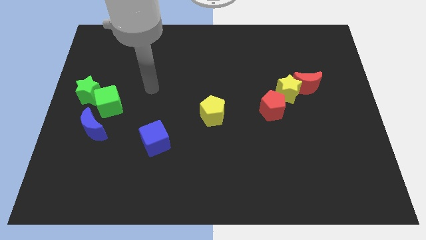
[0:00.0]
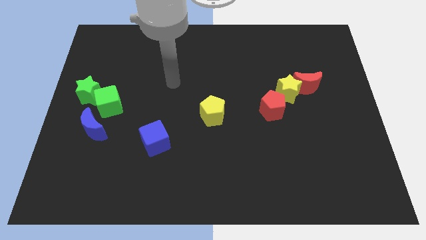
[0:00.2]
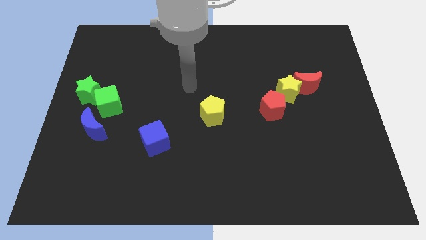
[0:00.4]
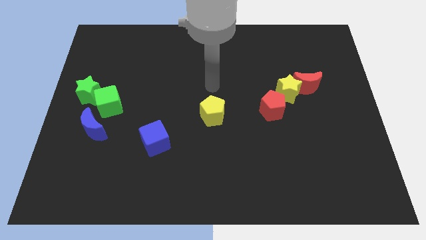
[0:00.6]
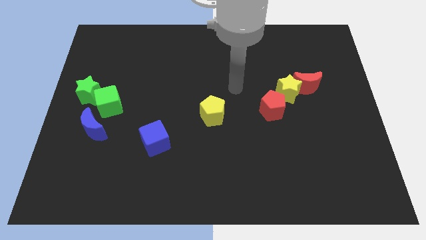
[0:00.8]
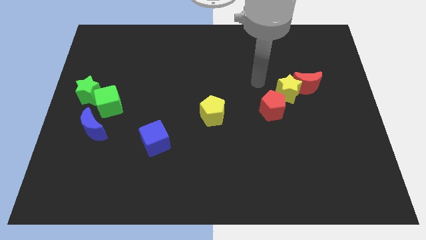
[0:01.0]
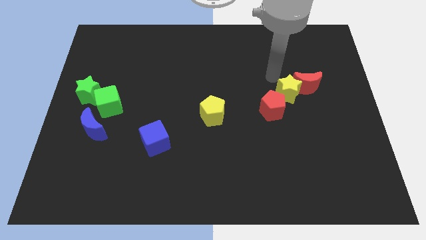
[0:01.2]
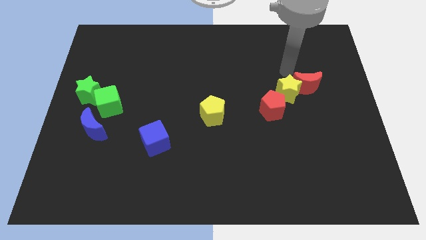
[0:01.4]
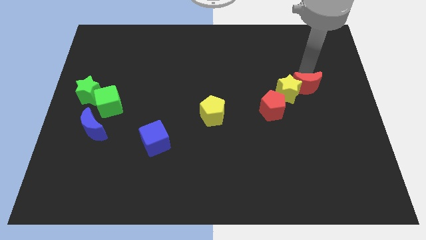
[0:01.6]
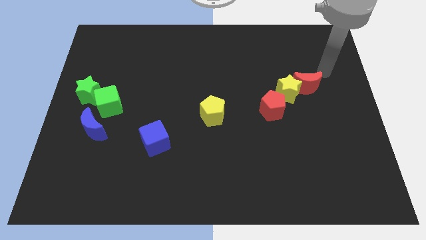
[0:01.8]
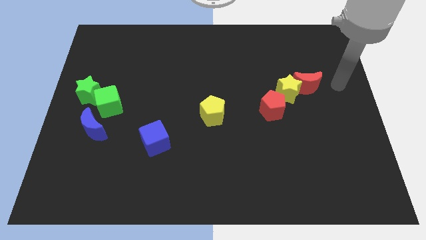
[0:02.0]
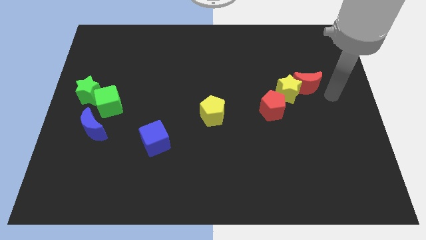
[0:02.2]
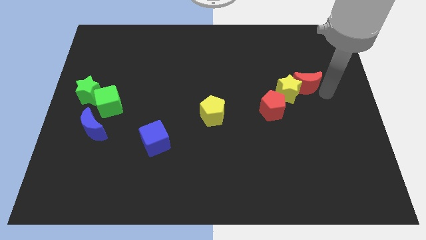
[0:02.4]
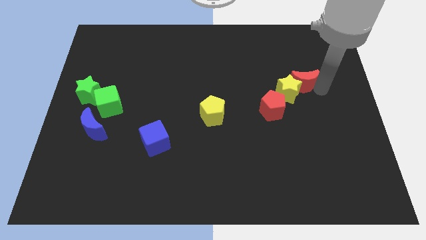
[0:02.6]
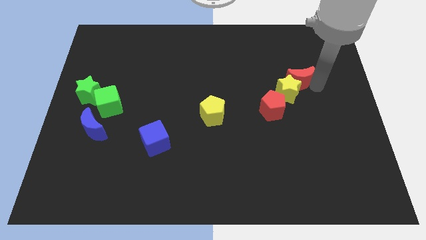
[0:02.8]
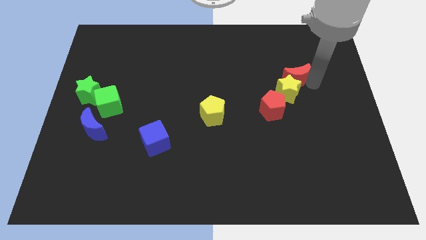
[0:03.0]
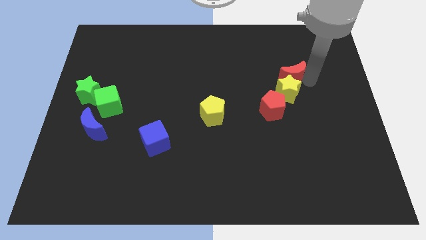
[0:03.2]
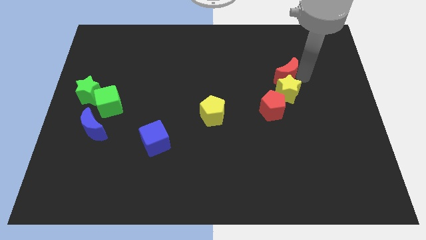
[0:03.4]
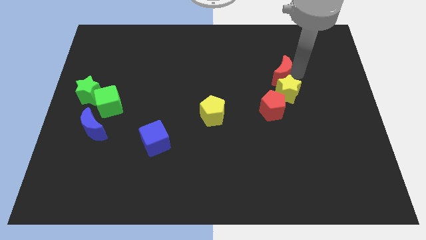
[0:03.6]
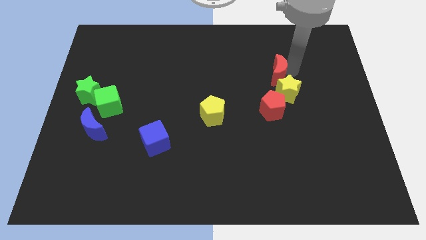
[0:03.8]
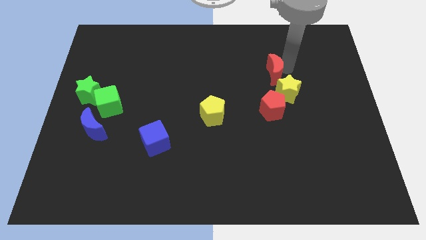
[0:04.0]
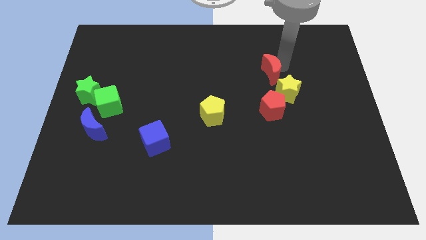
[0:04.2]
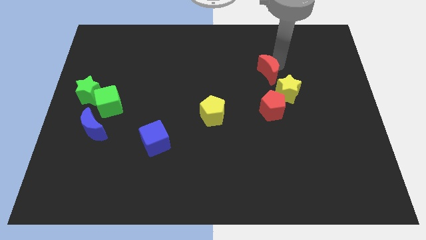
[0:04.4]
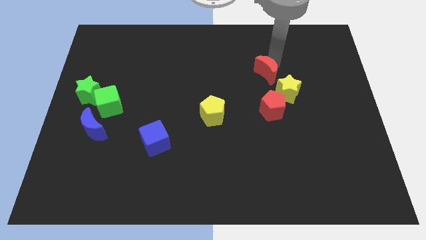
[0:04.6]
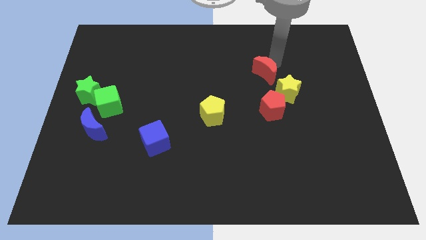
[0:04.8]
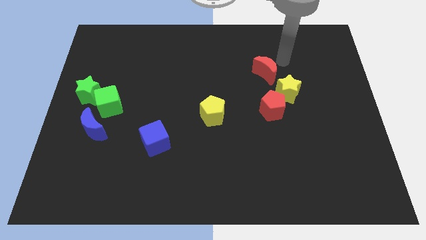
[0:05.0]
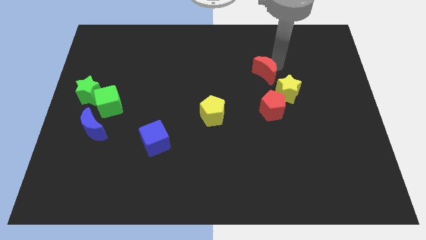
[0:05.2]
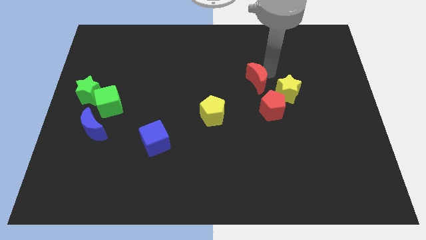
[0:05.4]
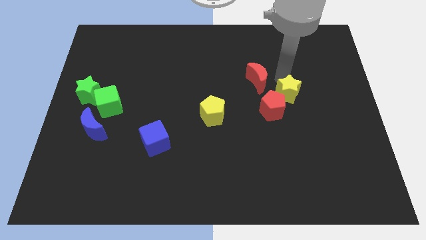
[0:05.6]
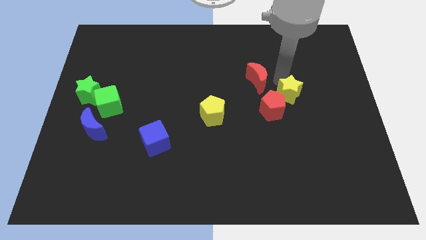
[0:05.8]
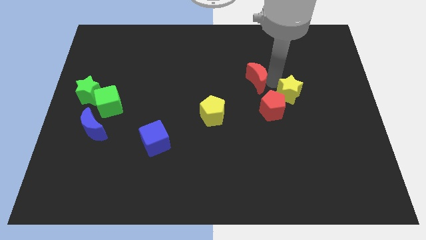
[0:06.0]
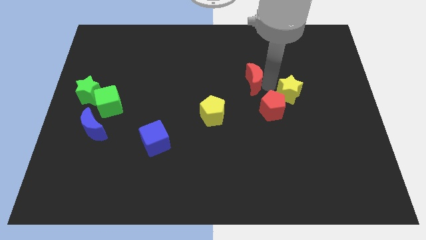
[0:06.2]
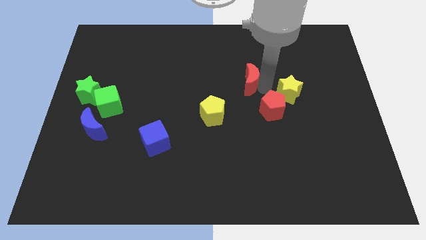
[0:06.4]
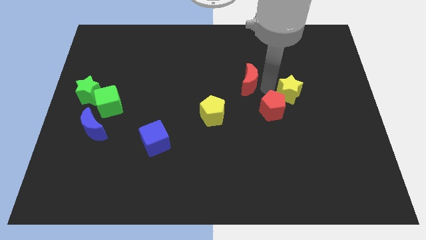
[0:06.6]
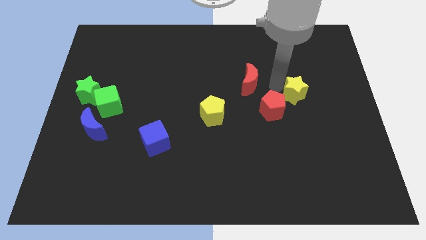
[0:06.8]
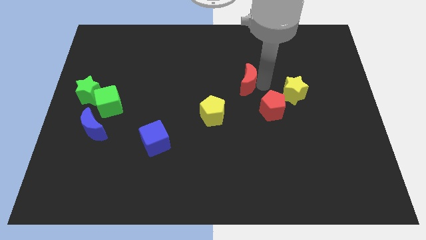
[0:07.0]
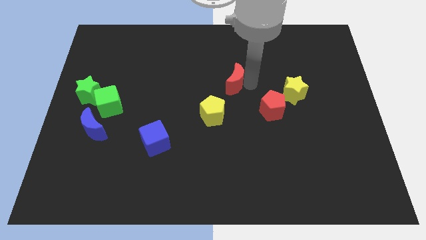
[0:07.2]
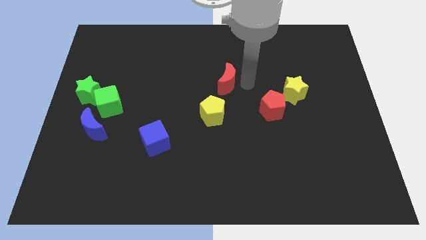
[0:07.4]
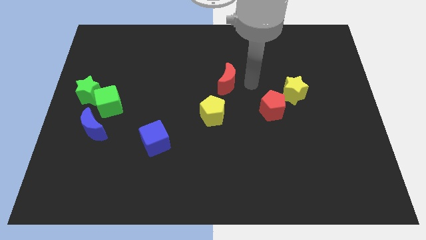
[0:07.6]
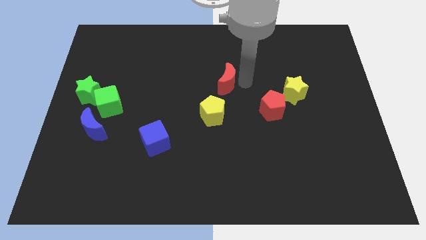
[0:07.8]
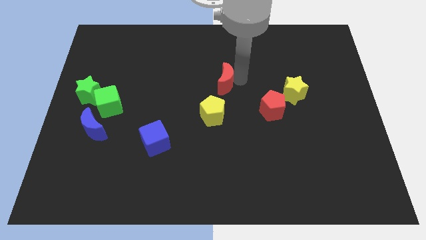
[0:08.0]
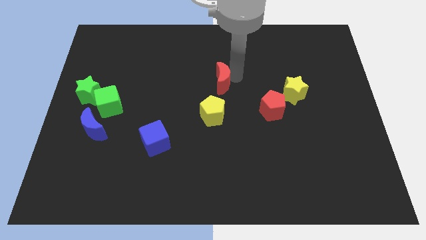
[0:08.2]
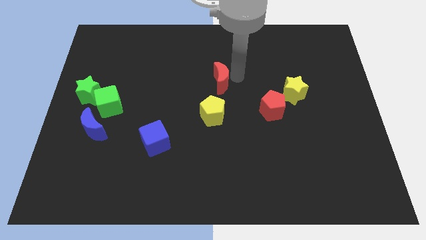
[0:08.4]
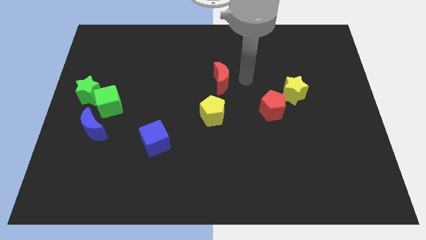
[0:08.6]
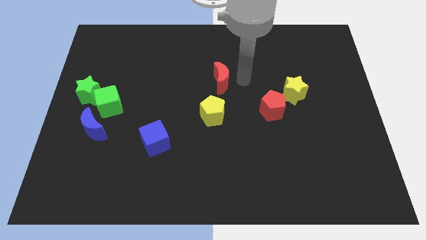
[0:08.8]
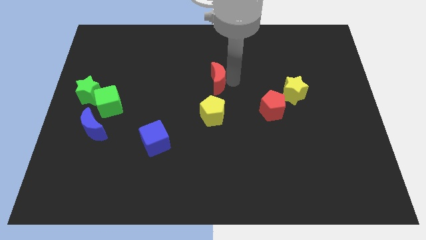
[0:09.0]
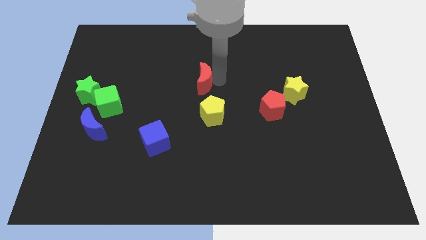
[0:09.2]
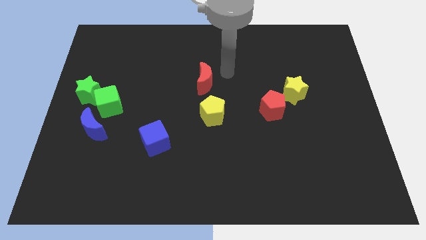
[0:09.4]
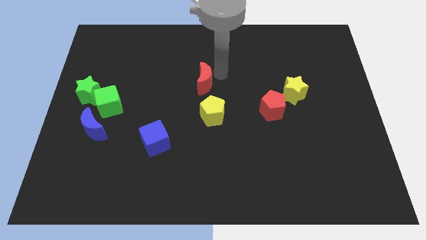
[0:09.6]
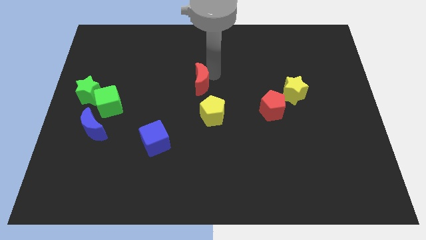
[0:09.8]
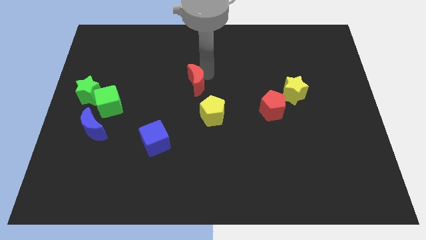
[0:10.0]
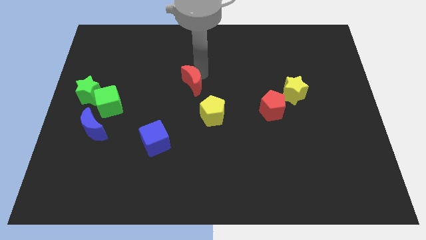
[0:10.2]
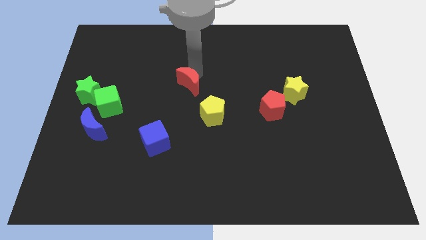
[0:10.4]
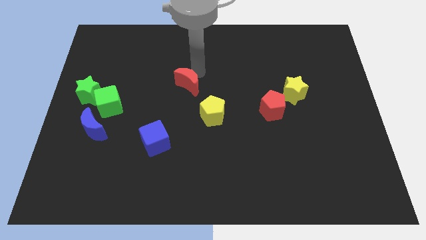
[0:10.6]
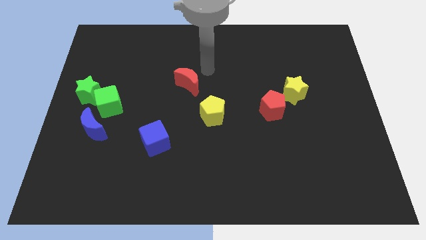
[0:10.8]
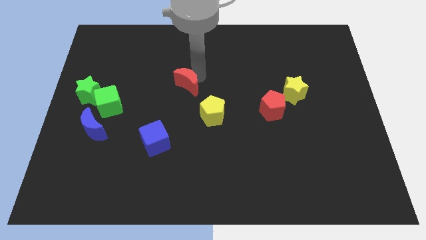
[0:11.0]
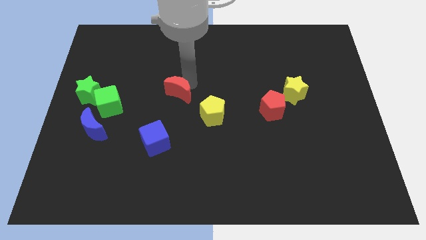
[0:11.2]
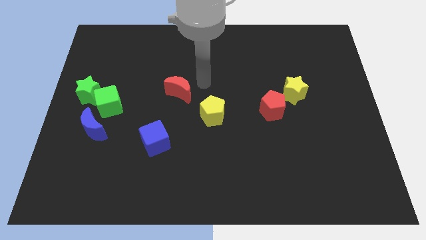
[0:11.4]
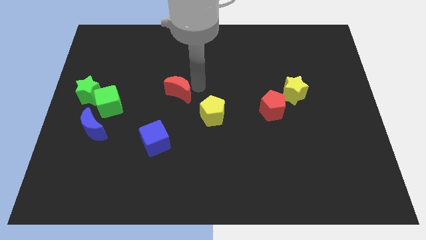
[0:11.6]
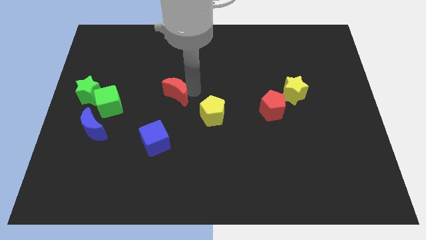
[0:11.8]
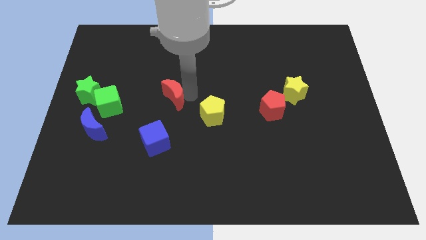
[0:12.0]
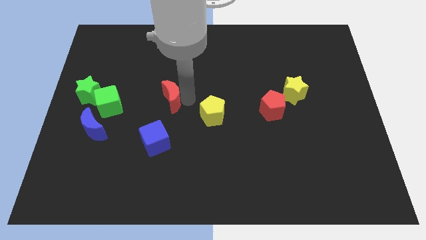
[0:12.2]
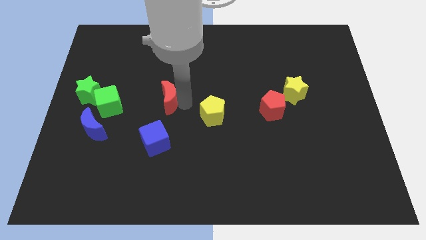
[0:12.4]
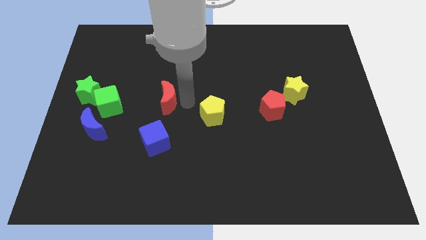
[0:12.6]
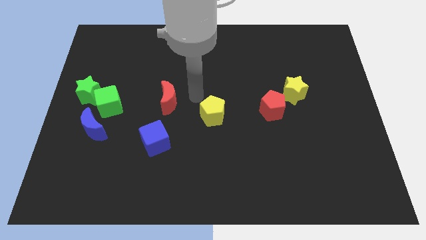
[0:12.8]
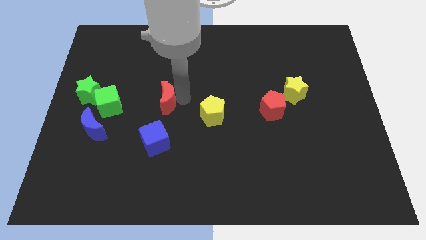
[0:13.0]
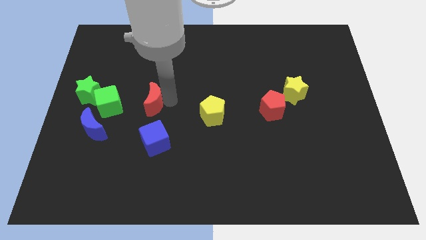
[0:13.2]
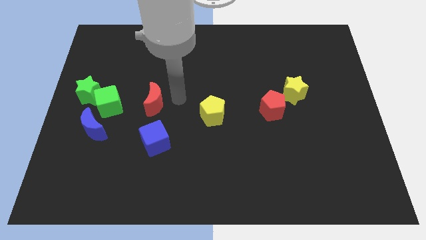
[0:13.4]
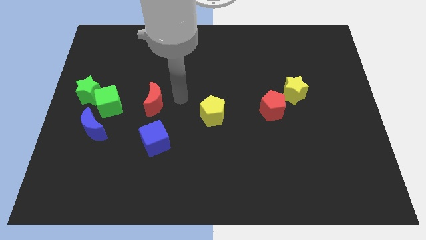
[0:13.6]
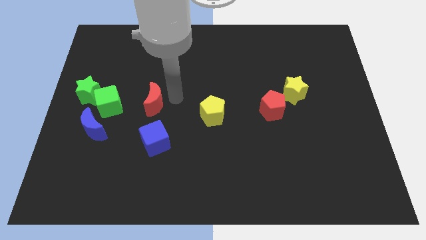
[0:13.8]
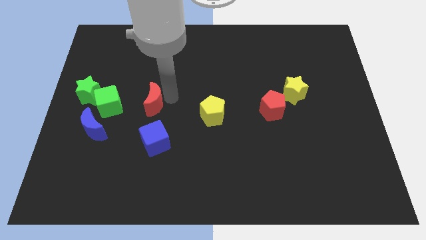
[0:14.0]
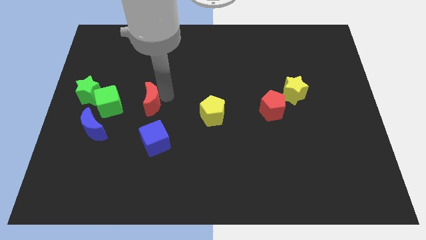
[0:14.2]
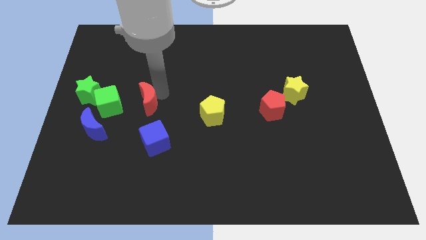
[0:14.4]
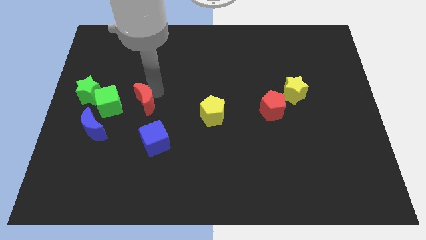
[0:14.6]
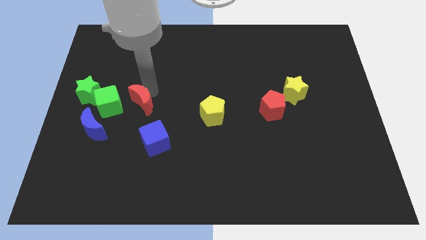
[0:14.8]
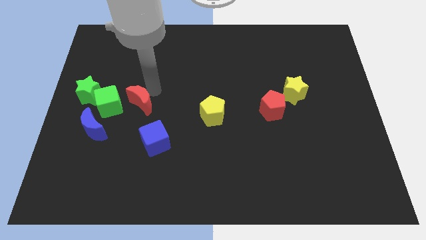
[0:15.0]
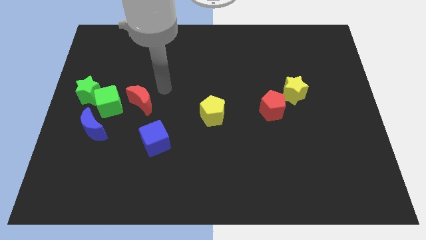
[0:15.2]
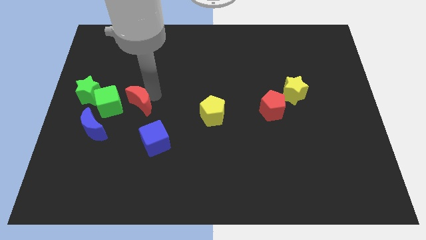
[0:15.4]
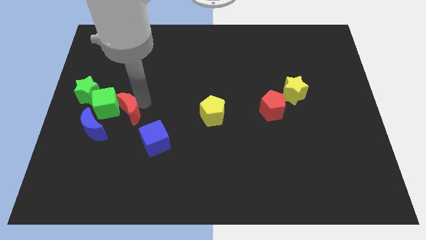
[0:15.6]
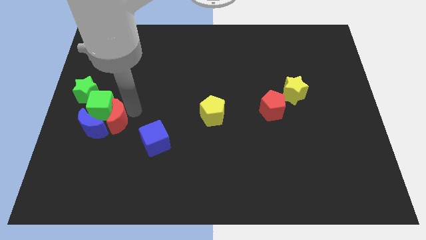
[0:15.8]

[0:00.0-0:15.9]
slide the red moon towards the blue moon
